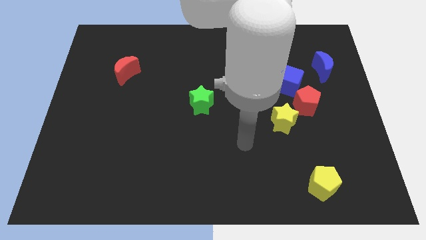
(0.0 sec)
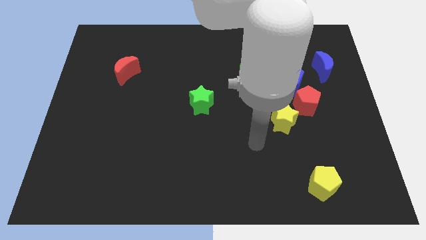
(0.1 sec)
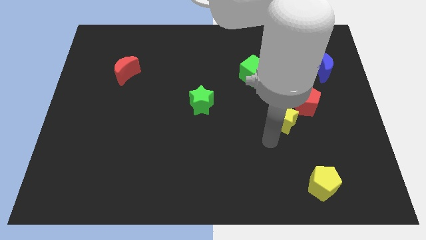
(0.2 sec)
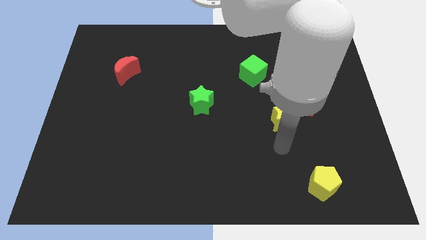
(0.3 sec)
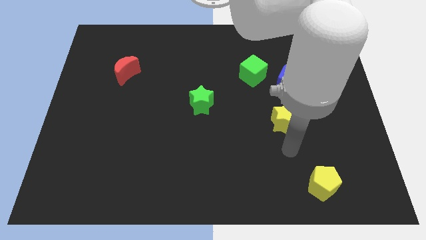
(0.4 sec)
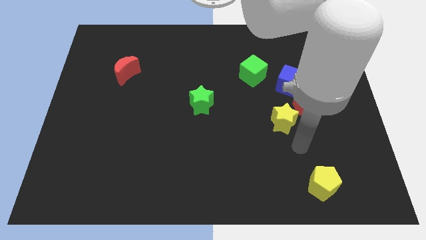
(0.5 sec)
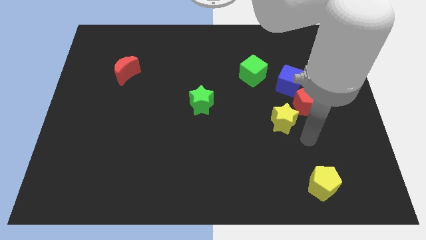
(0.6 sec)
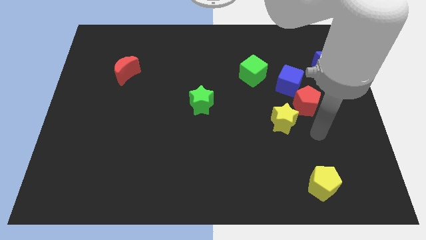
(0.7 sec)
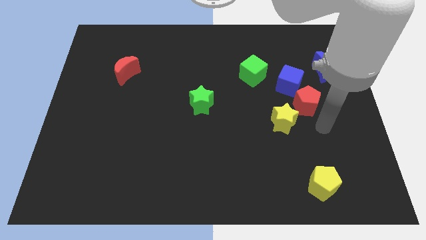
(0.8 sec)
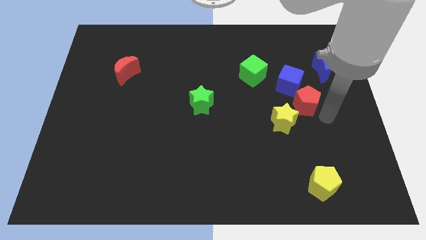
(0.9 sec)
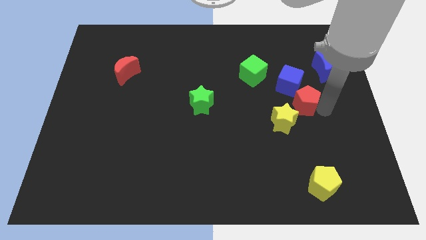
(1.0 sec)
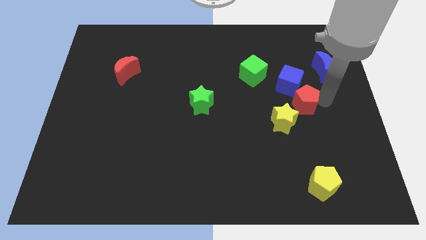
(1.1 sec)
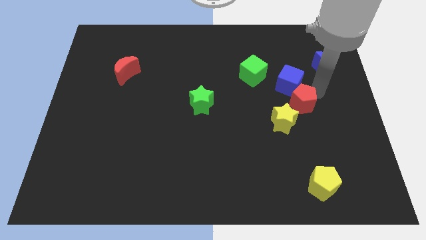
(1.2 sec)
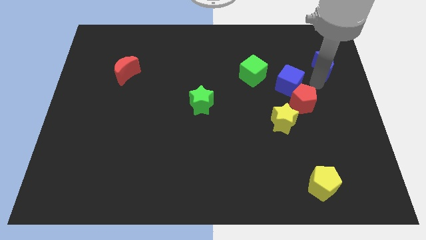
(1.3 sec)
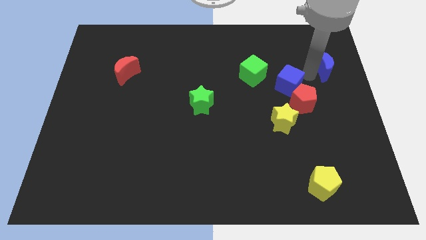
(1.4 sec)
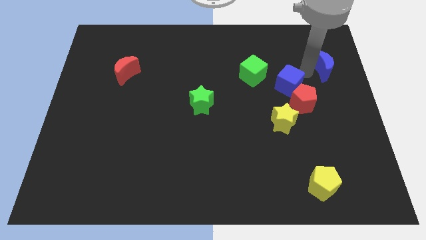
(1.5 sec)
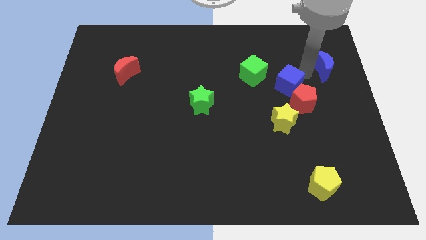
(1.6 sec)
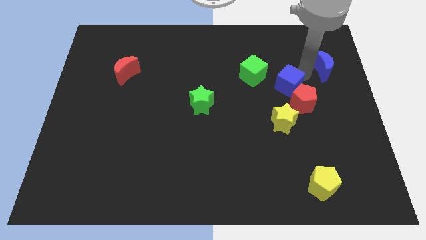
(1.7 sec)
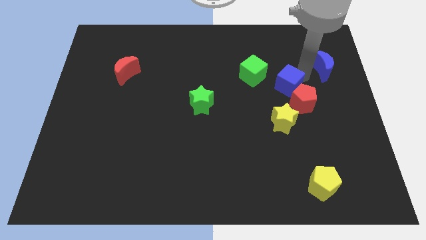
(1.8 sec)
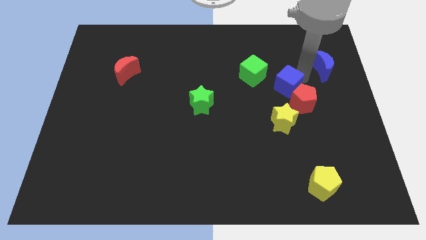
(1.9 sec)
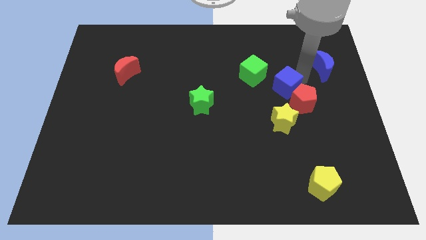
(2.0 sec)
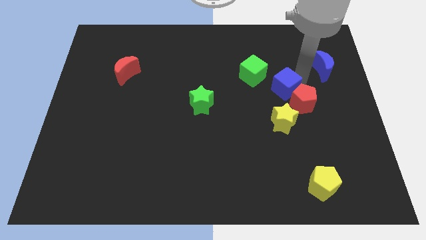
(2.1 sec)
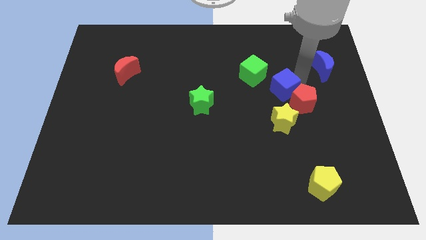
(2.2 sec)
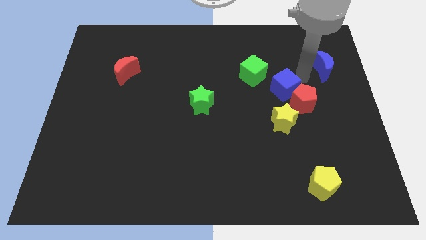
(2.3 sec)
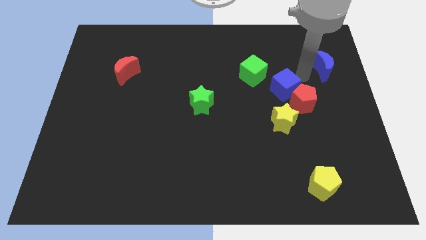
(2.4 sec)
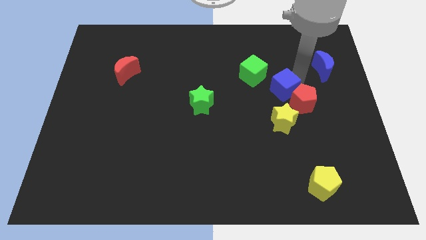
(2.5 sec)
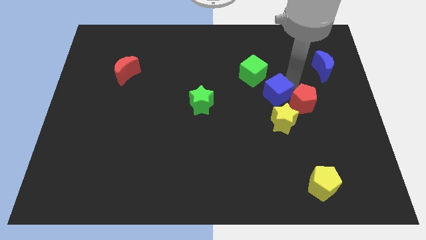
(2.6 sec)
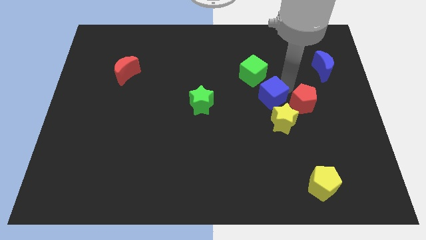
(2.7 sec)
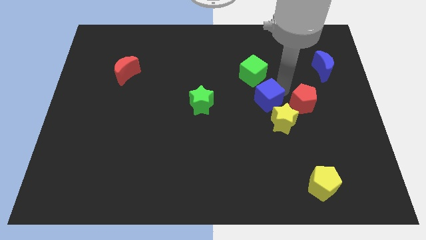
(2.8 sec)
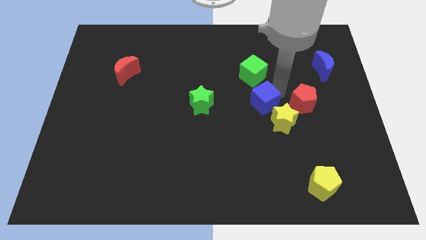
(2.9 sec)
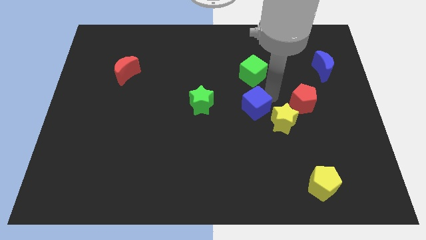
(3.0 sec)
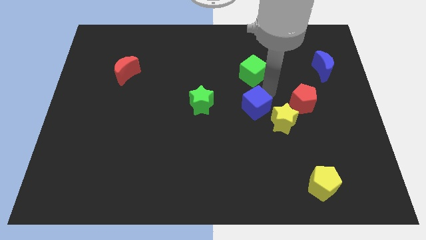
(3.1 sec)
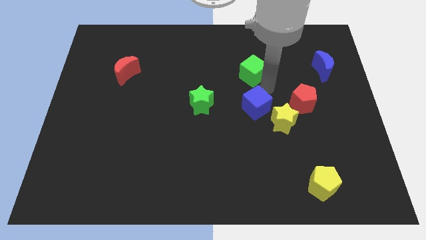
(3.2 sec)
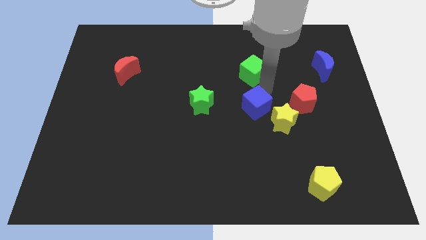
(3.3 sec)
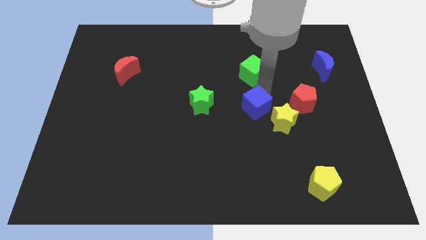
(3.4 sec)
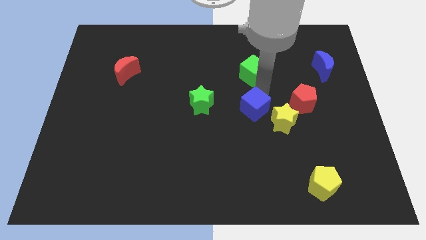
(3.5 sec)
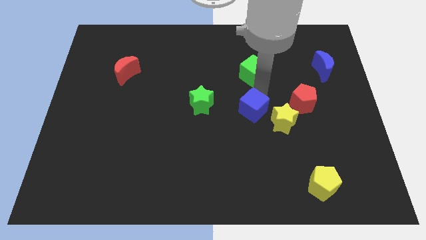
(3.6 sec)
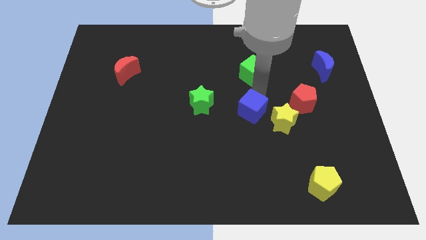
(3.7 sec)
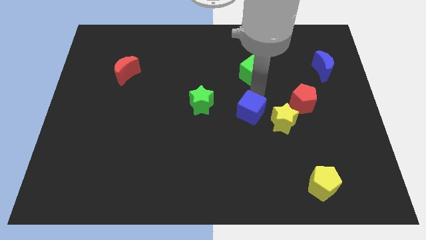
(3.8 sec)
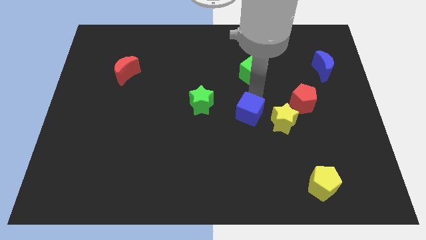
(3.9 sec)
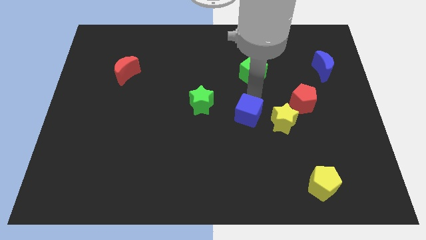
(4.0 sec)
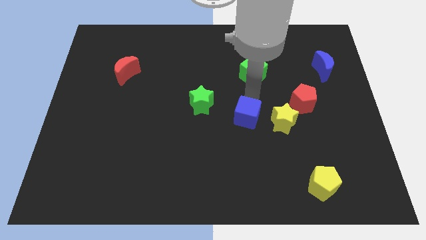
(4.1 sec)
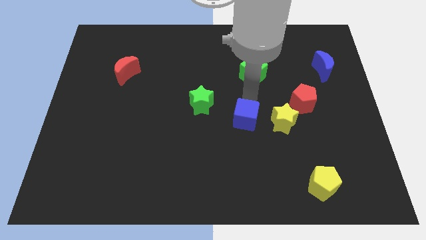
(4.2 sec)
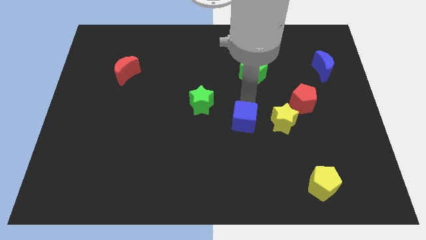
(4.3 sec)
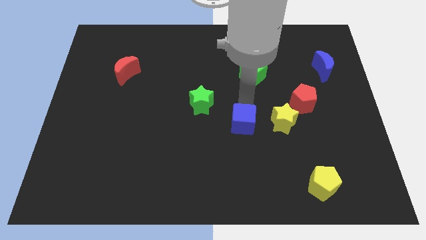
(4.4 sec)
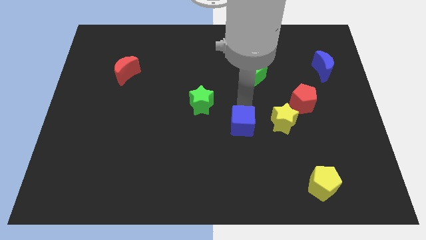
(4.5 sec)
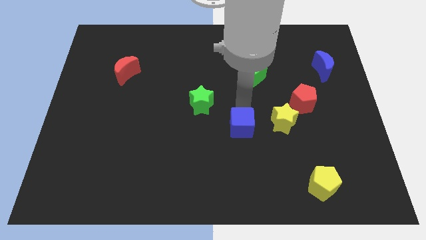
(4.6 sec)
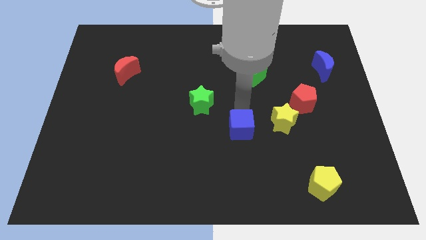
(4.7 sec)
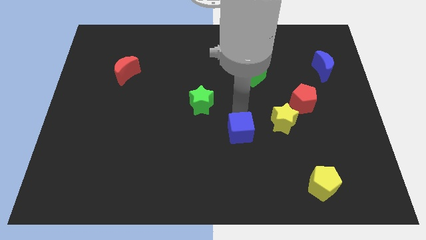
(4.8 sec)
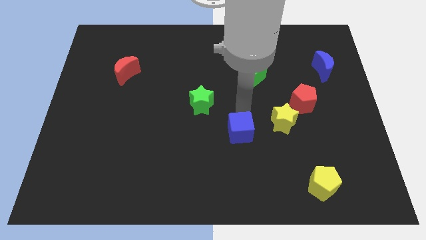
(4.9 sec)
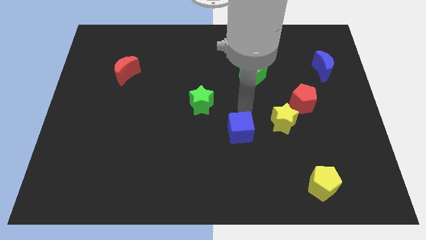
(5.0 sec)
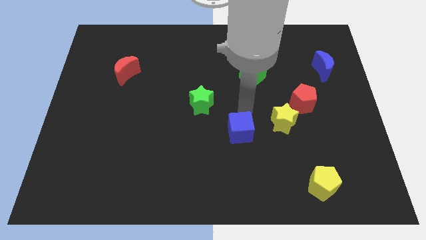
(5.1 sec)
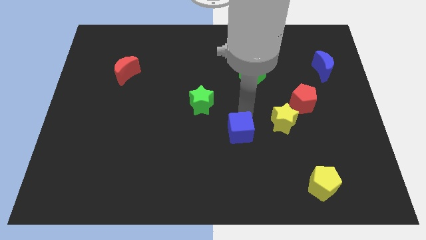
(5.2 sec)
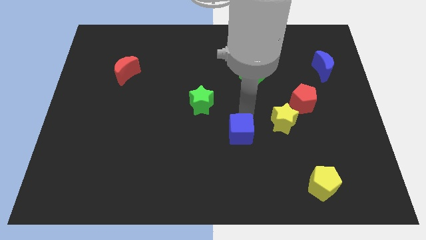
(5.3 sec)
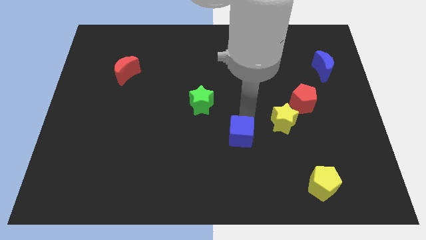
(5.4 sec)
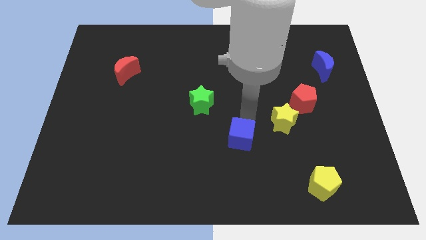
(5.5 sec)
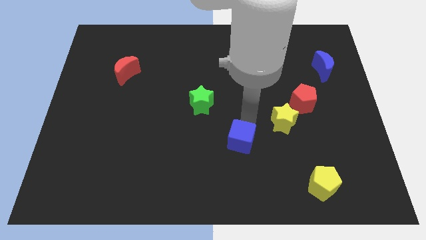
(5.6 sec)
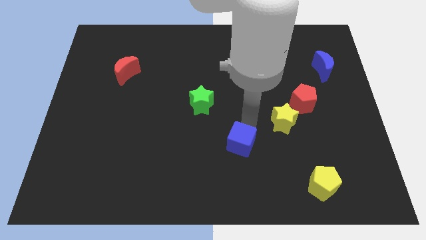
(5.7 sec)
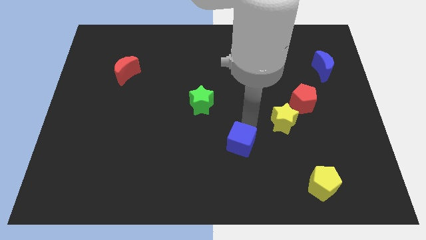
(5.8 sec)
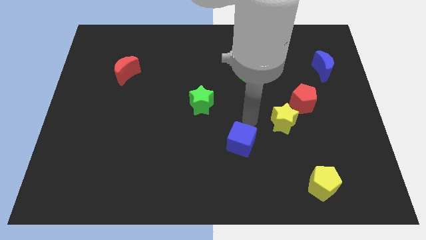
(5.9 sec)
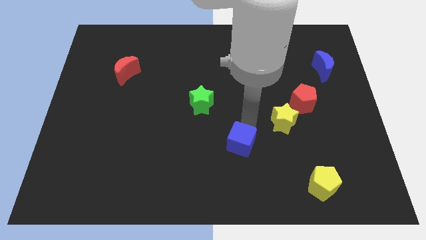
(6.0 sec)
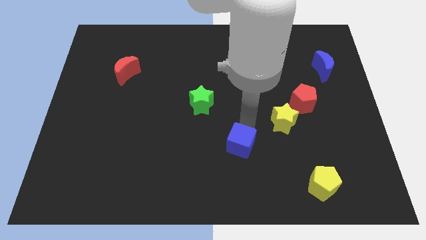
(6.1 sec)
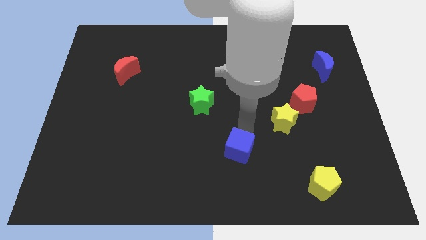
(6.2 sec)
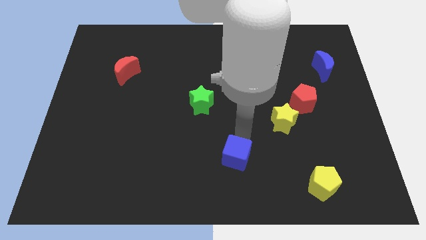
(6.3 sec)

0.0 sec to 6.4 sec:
move the blue cube to the bottom side
